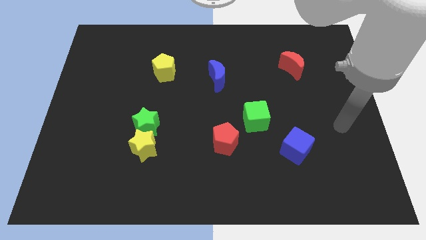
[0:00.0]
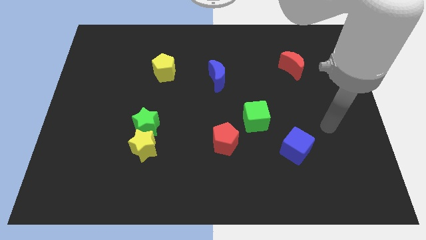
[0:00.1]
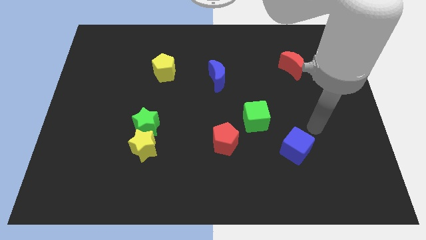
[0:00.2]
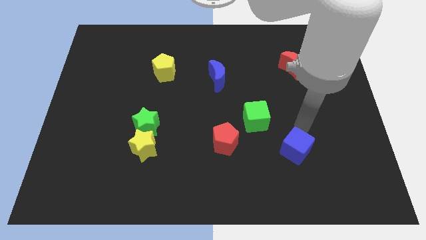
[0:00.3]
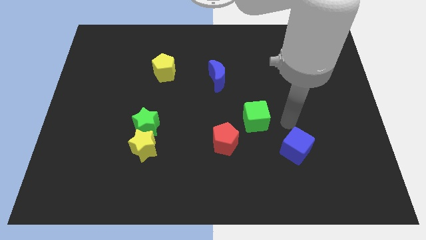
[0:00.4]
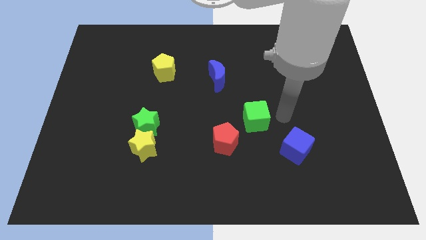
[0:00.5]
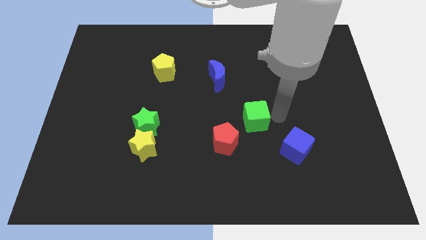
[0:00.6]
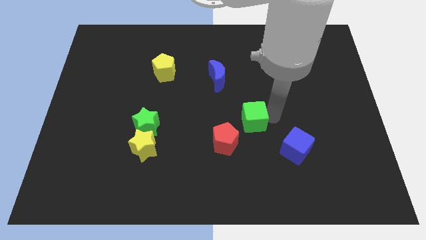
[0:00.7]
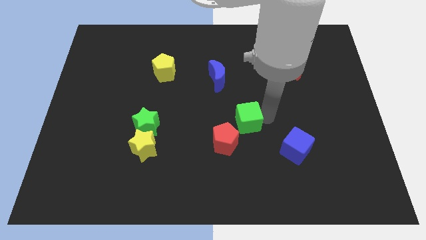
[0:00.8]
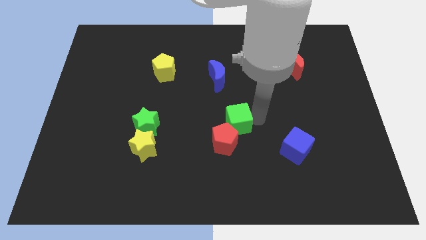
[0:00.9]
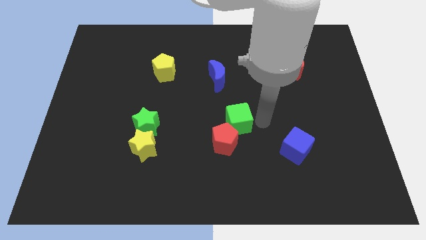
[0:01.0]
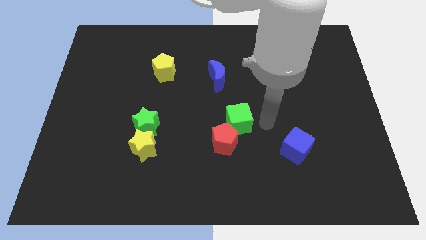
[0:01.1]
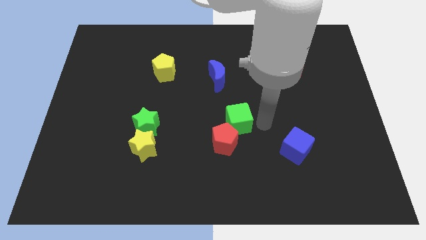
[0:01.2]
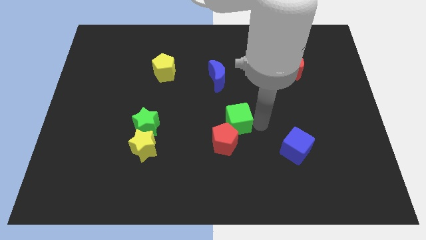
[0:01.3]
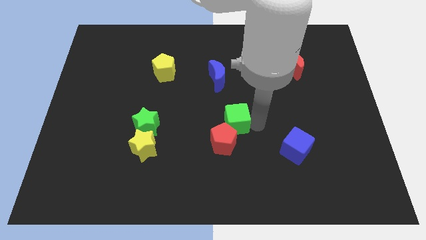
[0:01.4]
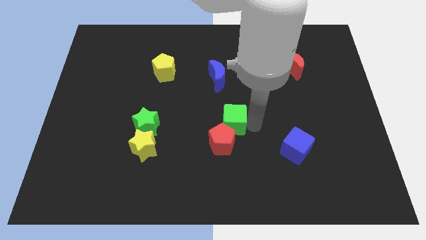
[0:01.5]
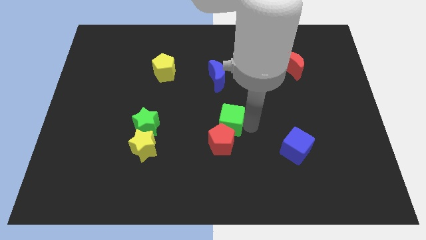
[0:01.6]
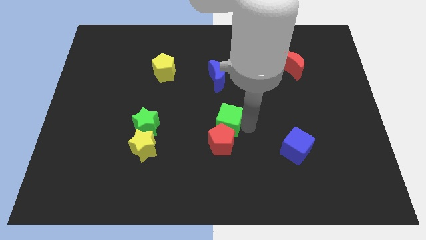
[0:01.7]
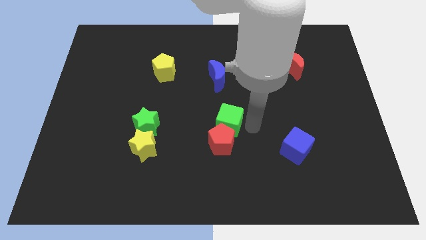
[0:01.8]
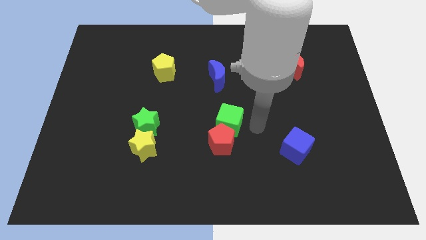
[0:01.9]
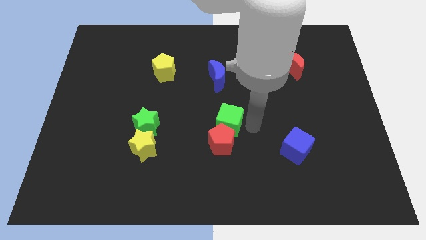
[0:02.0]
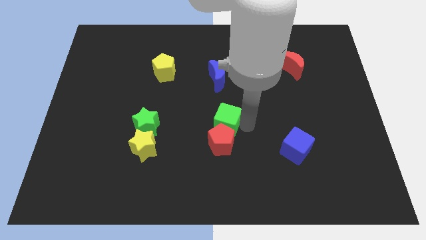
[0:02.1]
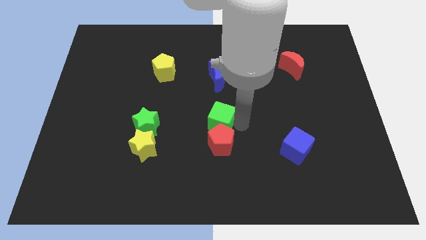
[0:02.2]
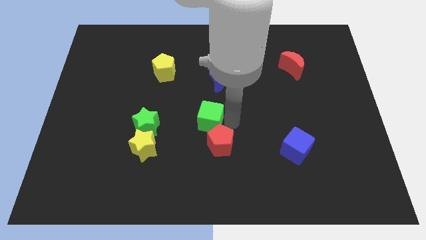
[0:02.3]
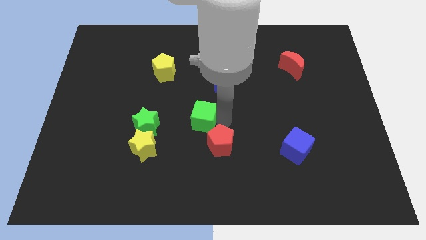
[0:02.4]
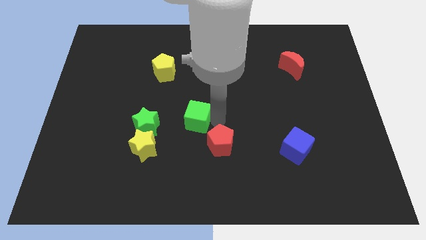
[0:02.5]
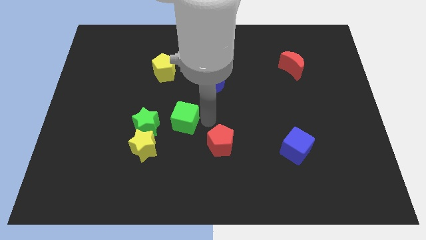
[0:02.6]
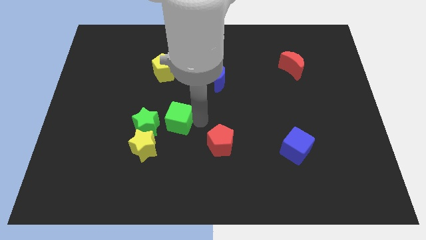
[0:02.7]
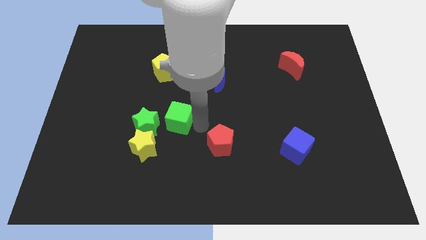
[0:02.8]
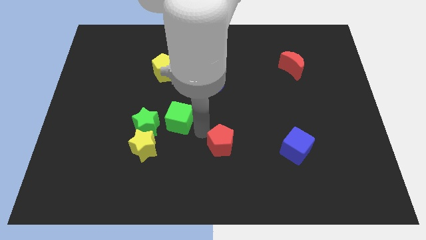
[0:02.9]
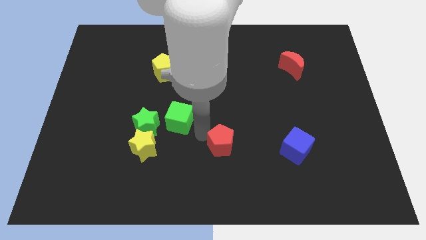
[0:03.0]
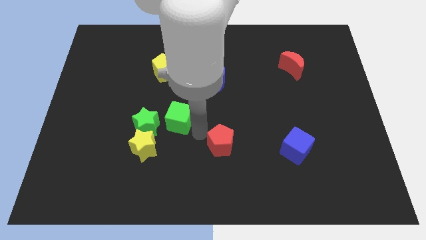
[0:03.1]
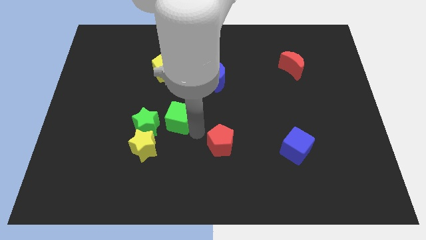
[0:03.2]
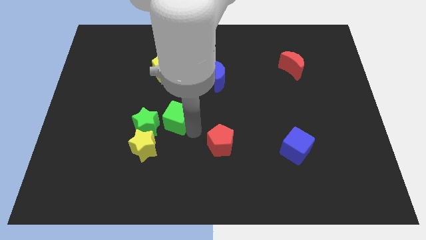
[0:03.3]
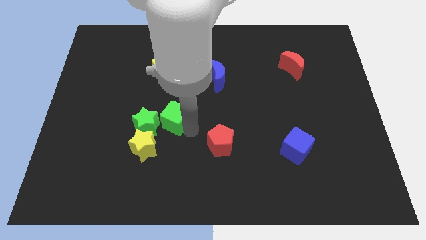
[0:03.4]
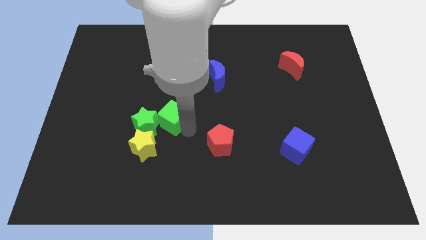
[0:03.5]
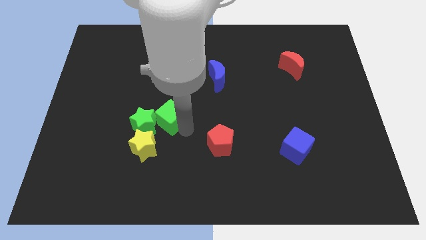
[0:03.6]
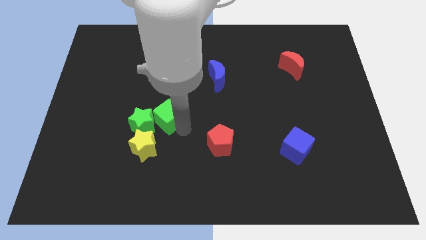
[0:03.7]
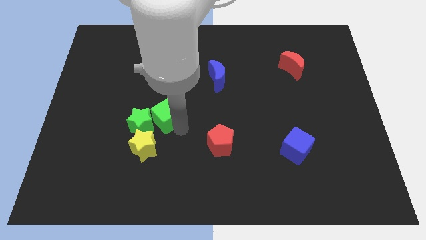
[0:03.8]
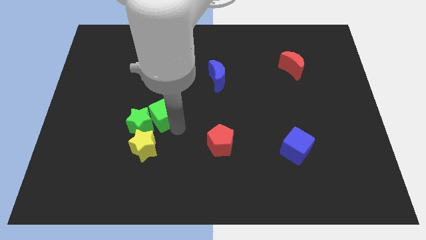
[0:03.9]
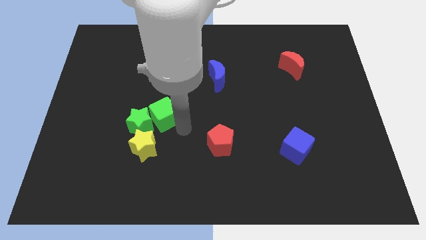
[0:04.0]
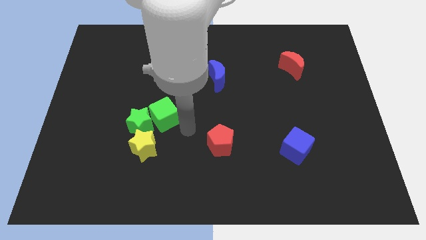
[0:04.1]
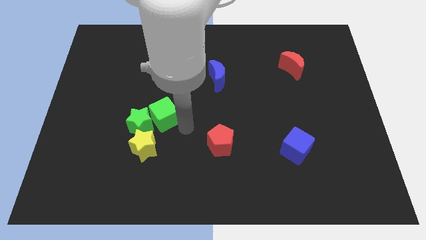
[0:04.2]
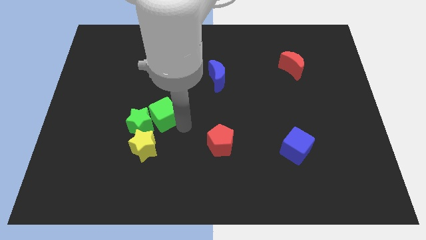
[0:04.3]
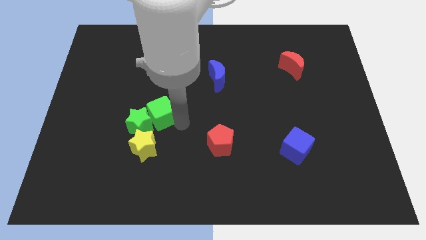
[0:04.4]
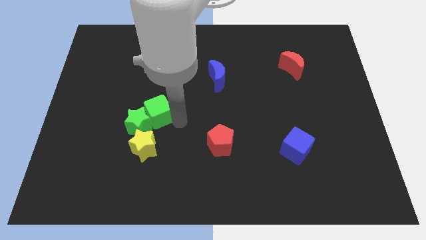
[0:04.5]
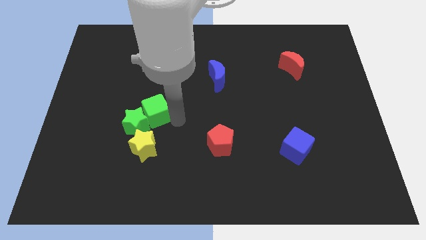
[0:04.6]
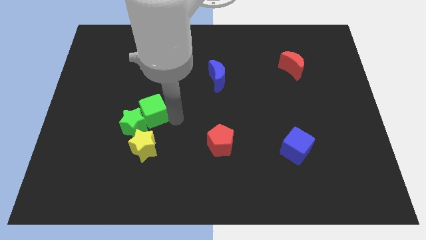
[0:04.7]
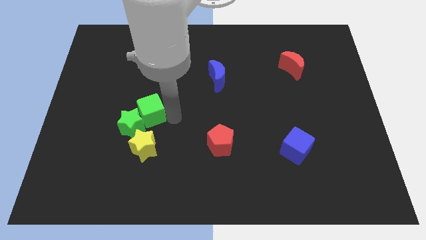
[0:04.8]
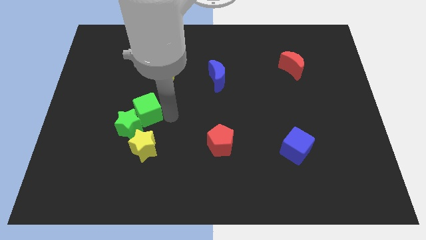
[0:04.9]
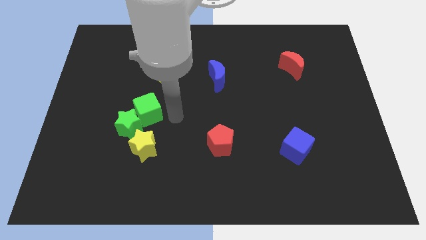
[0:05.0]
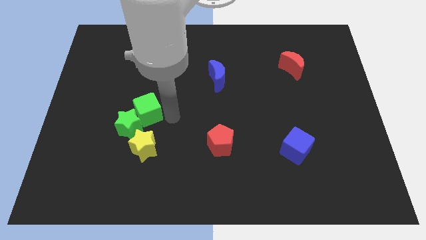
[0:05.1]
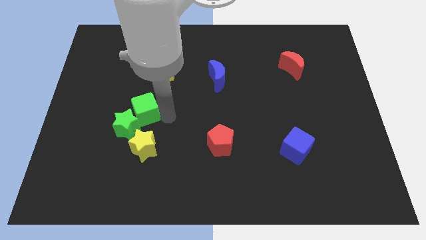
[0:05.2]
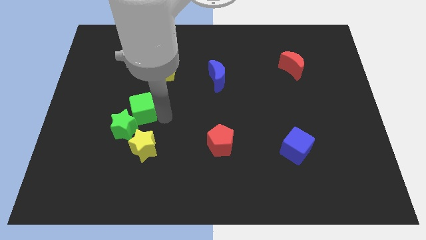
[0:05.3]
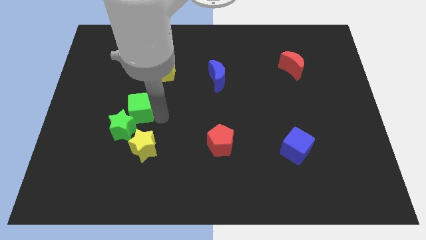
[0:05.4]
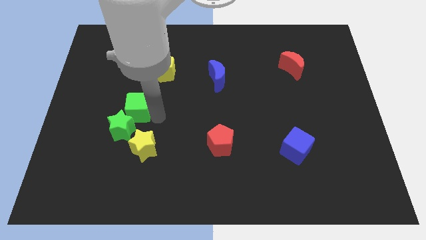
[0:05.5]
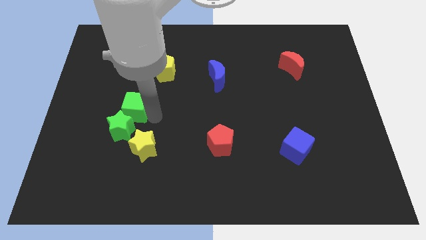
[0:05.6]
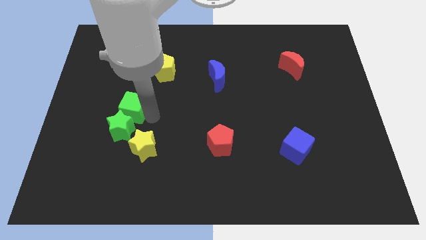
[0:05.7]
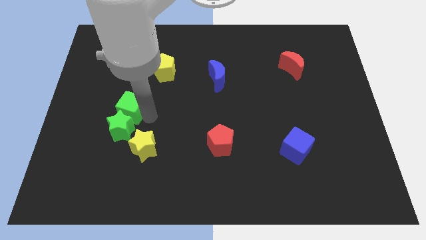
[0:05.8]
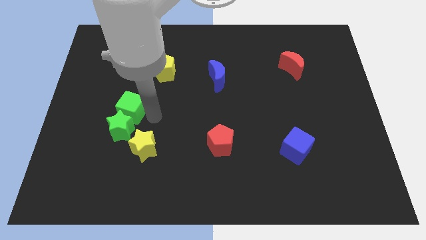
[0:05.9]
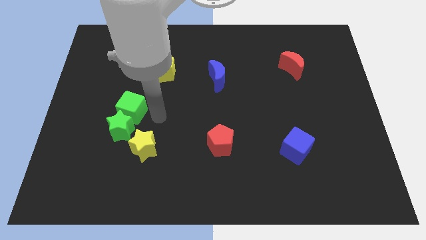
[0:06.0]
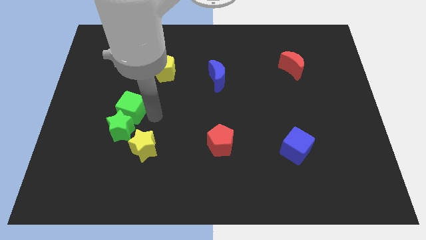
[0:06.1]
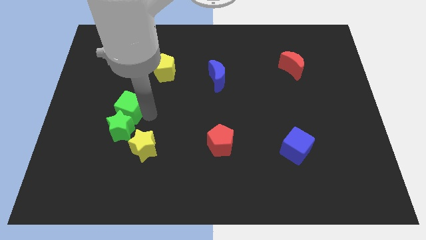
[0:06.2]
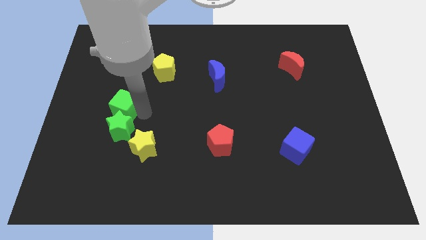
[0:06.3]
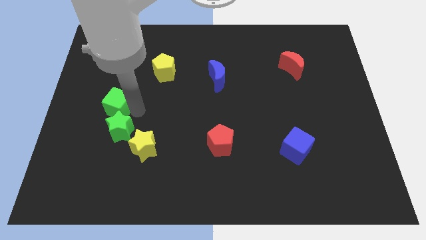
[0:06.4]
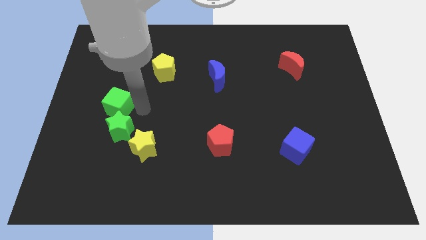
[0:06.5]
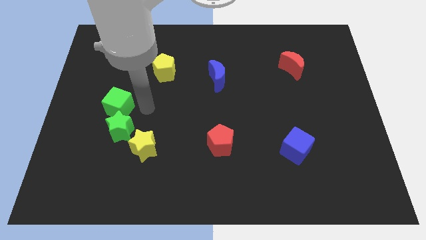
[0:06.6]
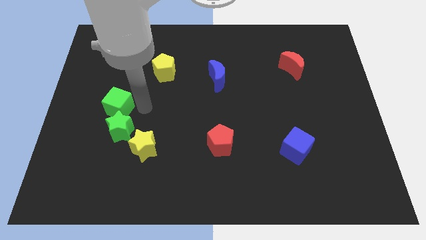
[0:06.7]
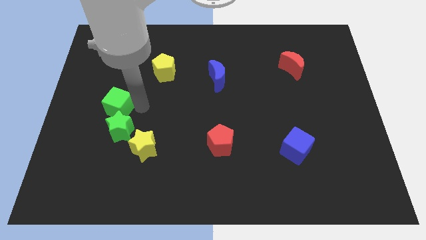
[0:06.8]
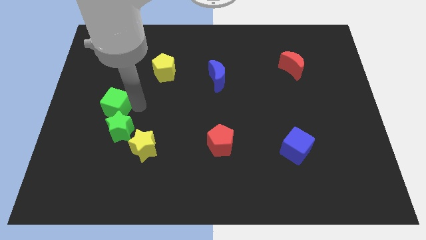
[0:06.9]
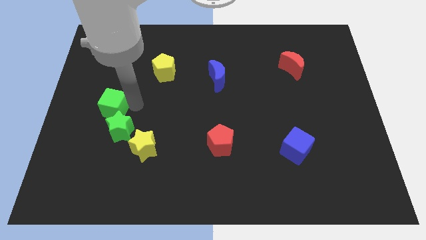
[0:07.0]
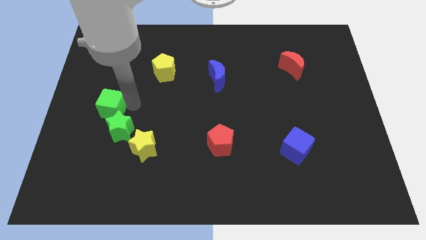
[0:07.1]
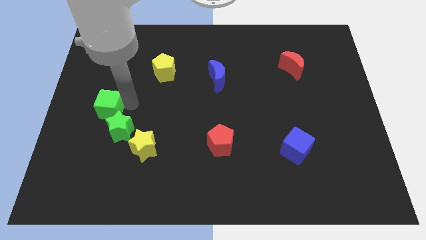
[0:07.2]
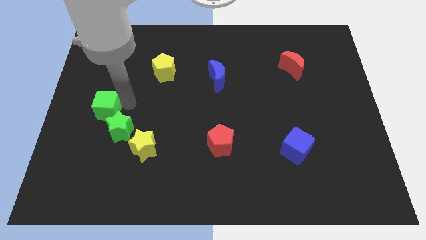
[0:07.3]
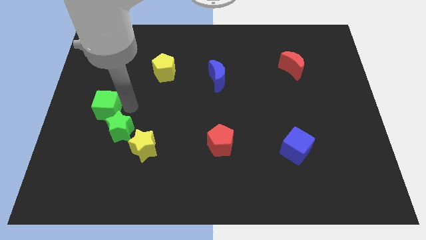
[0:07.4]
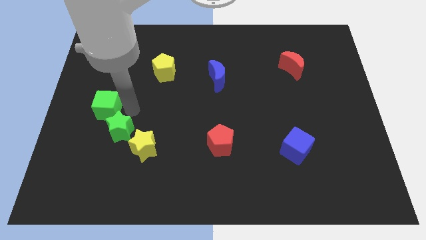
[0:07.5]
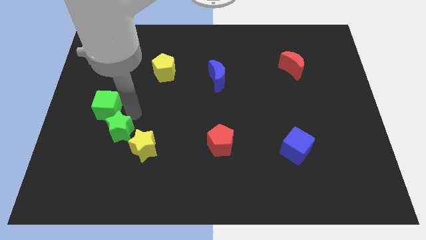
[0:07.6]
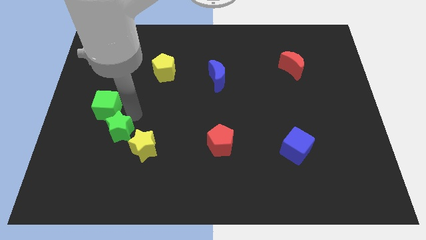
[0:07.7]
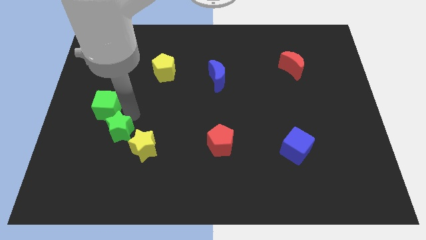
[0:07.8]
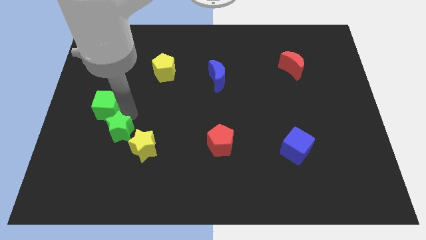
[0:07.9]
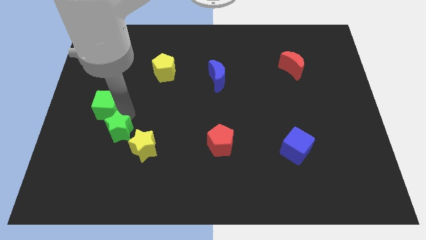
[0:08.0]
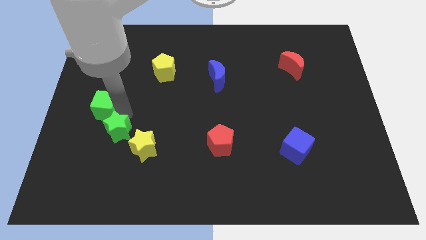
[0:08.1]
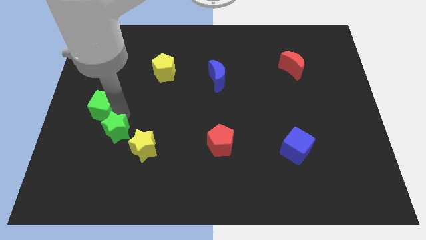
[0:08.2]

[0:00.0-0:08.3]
move the green cube to the center left
